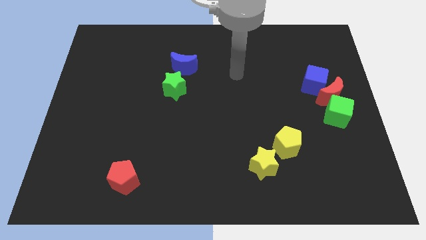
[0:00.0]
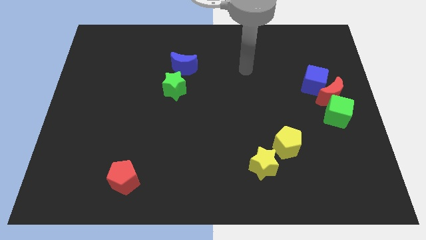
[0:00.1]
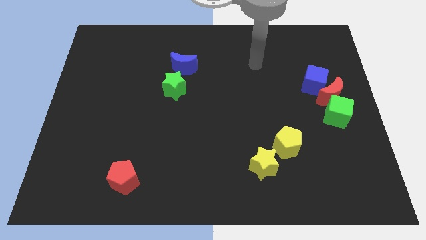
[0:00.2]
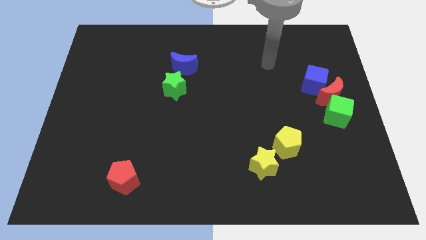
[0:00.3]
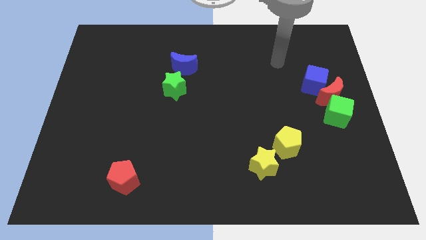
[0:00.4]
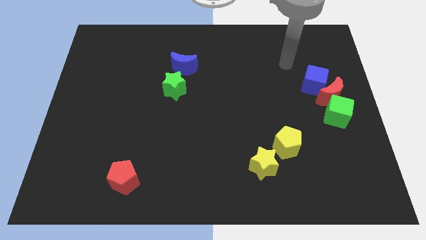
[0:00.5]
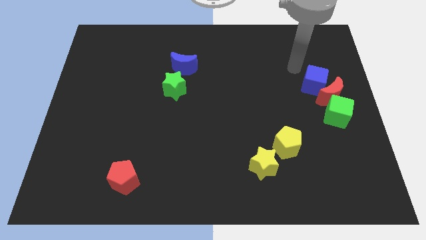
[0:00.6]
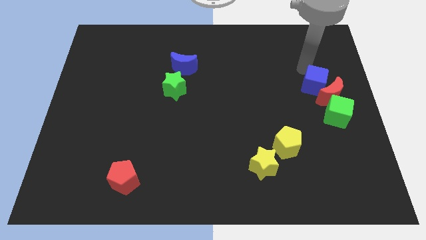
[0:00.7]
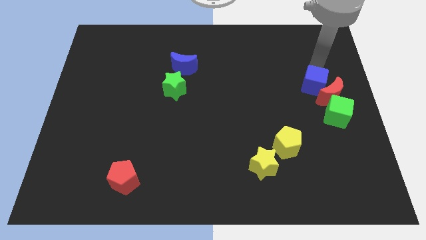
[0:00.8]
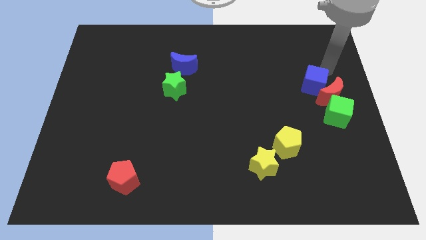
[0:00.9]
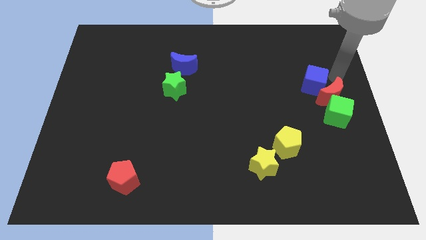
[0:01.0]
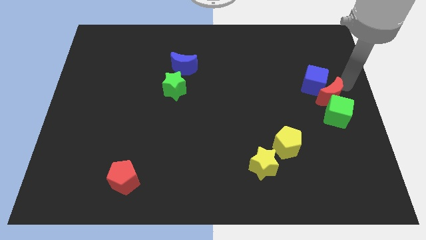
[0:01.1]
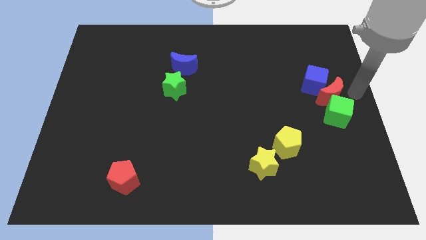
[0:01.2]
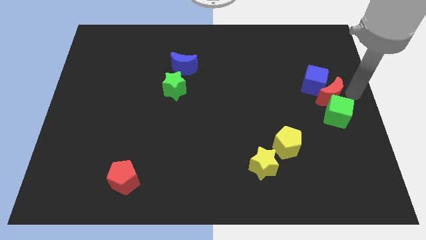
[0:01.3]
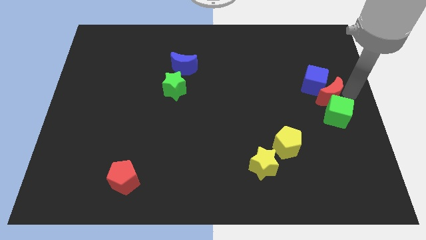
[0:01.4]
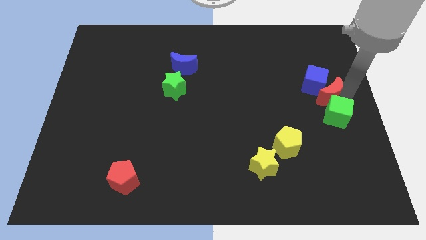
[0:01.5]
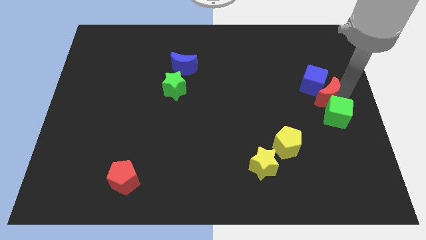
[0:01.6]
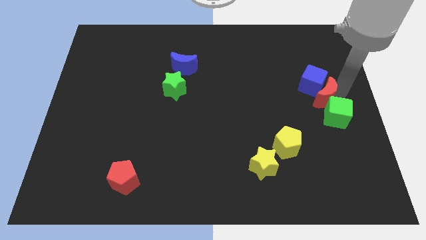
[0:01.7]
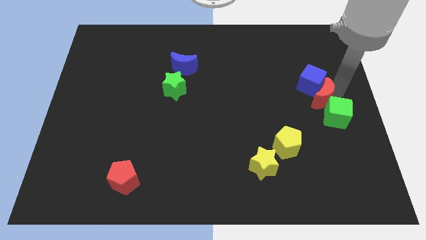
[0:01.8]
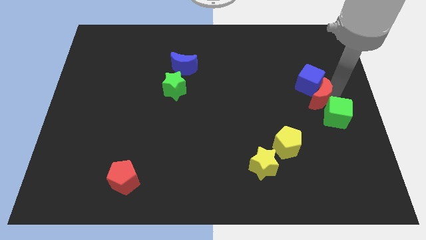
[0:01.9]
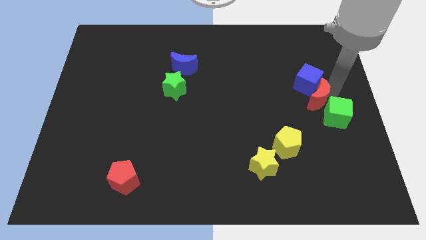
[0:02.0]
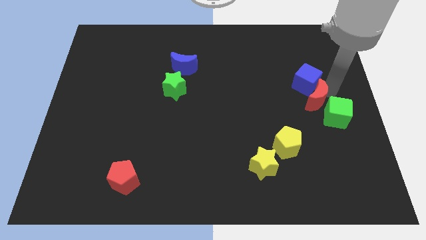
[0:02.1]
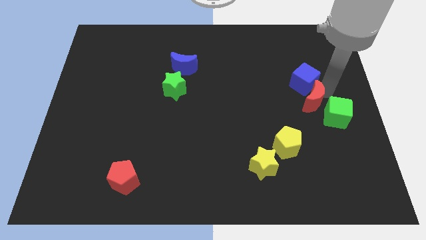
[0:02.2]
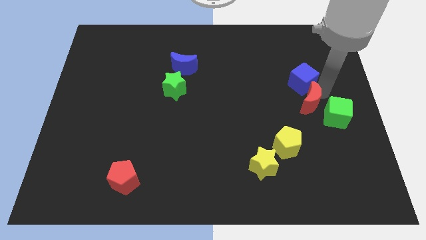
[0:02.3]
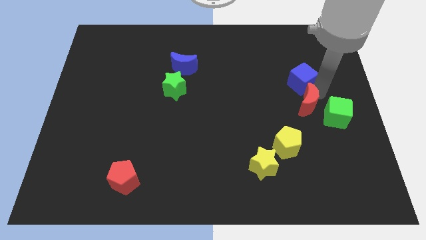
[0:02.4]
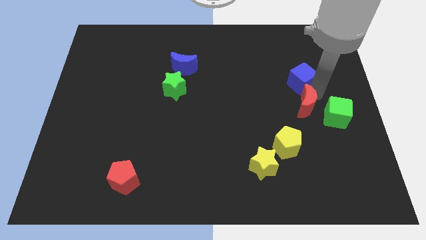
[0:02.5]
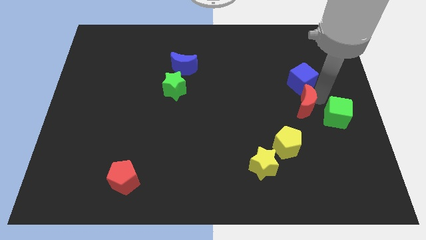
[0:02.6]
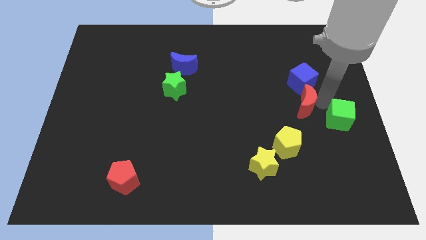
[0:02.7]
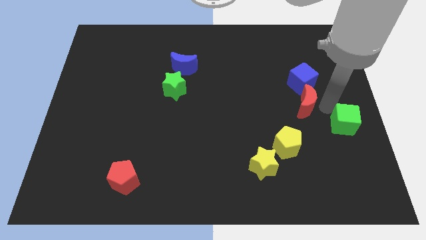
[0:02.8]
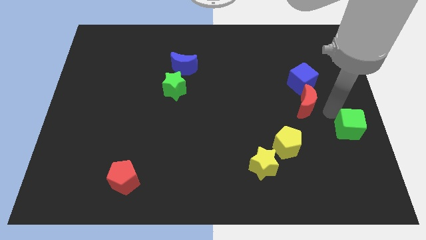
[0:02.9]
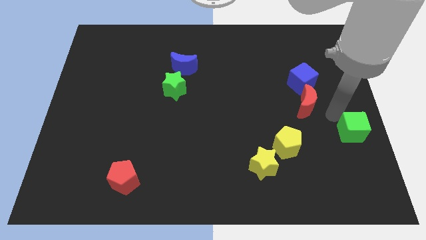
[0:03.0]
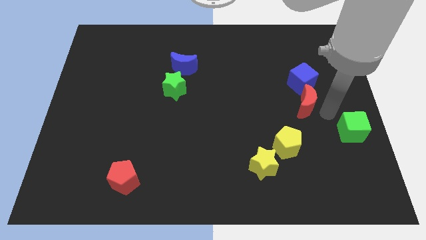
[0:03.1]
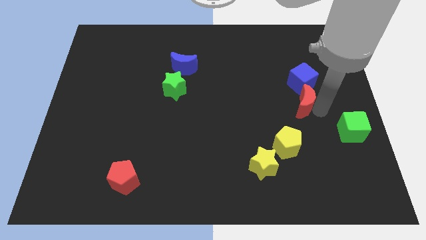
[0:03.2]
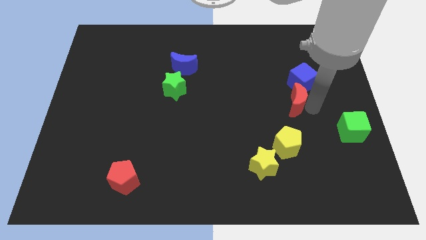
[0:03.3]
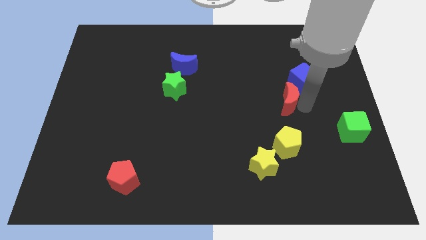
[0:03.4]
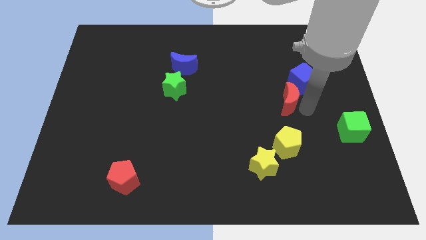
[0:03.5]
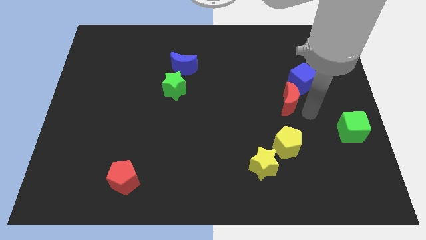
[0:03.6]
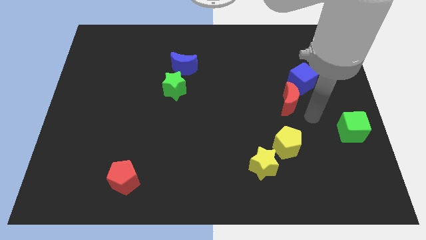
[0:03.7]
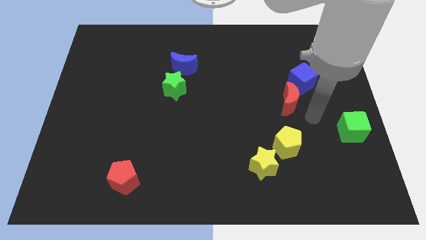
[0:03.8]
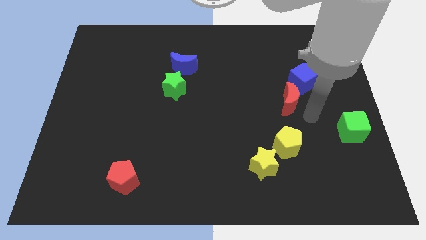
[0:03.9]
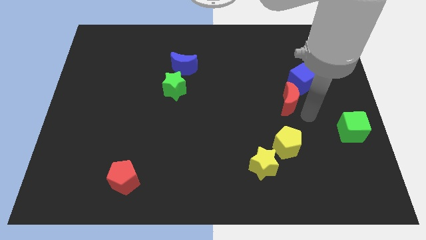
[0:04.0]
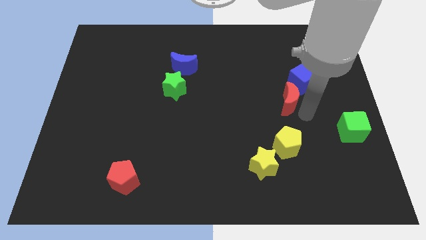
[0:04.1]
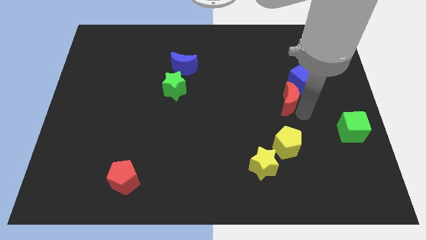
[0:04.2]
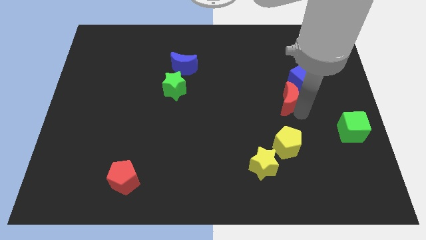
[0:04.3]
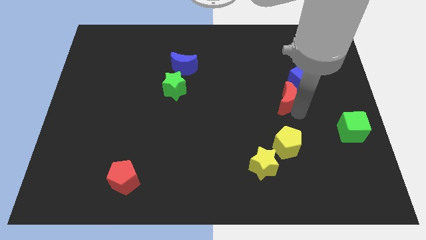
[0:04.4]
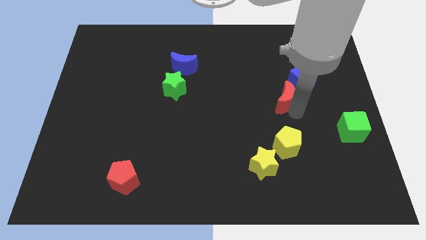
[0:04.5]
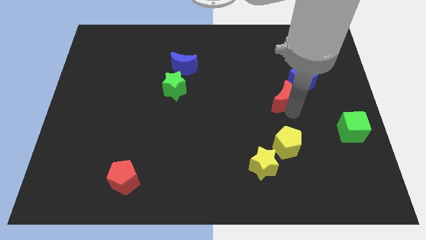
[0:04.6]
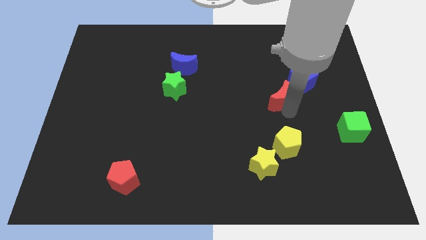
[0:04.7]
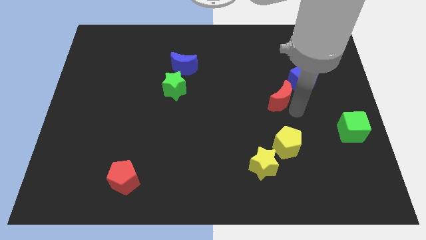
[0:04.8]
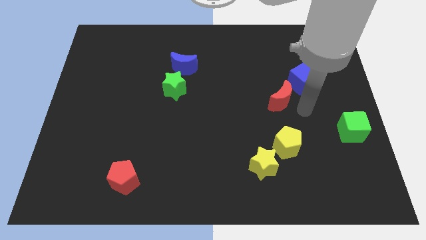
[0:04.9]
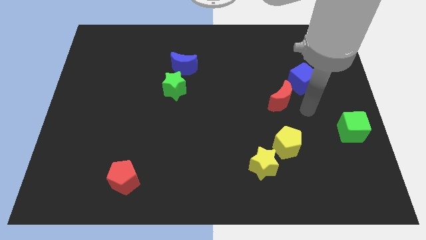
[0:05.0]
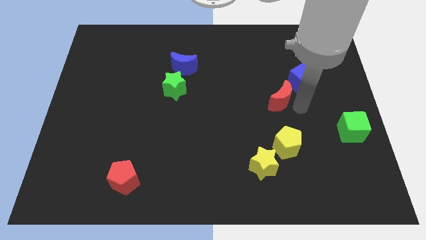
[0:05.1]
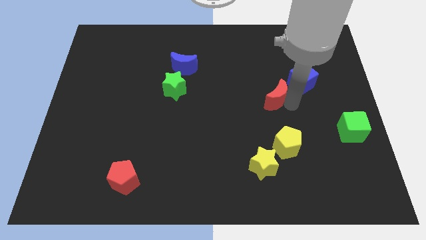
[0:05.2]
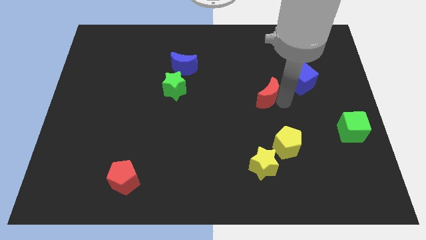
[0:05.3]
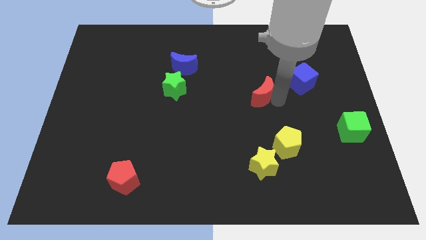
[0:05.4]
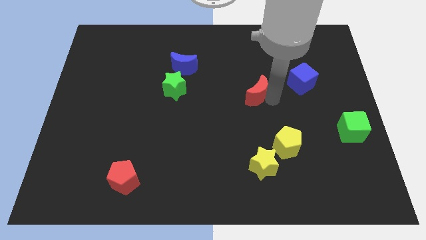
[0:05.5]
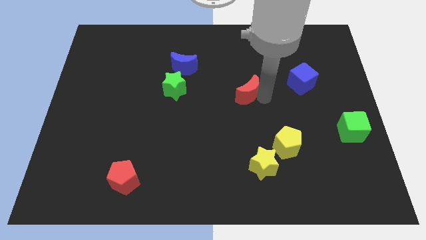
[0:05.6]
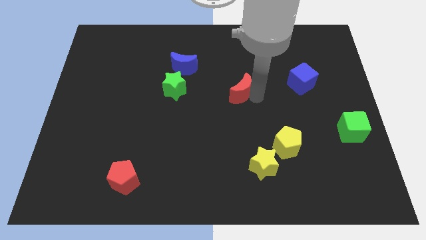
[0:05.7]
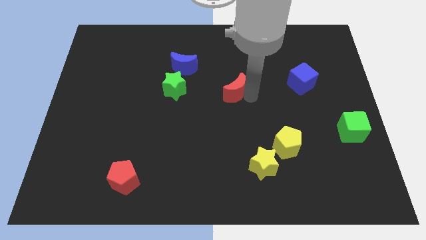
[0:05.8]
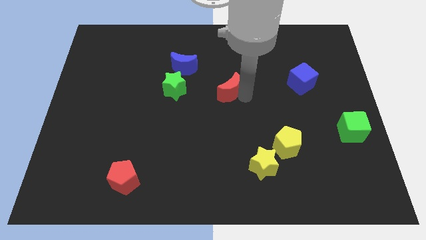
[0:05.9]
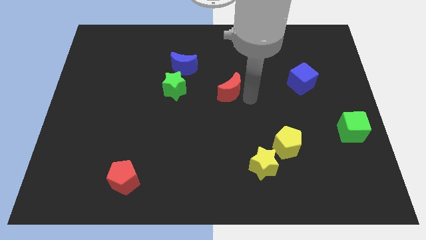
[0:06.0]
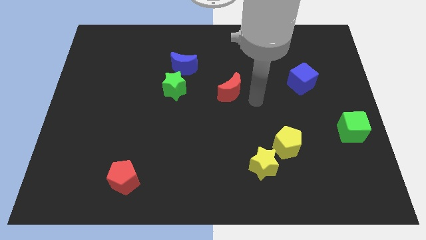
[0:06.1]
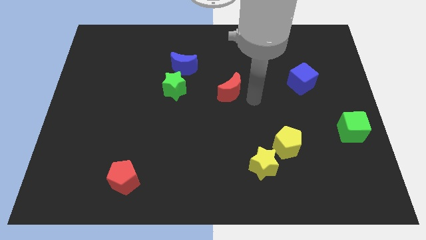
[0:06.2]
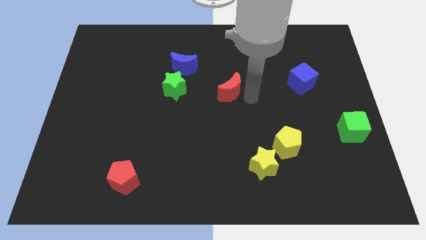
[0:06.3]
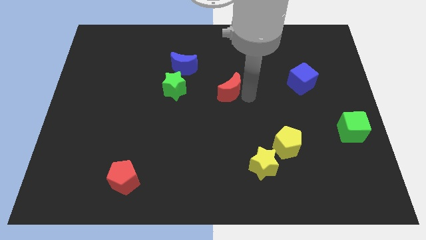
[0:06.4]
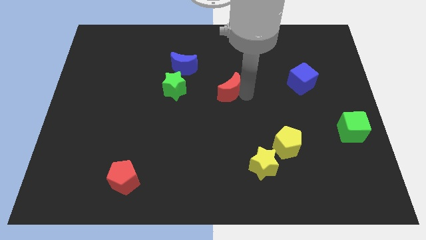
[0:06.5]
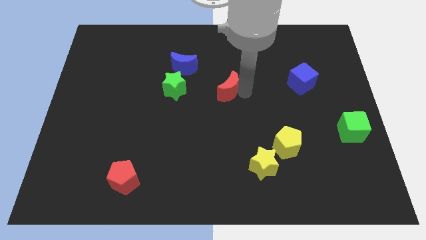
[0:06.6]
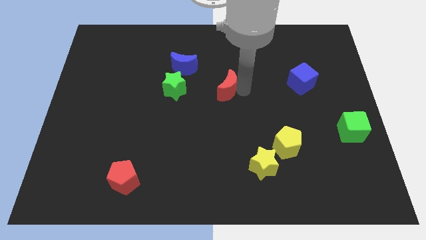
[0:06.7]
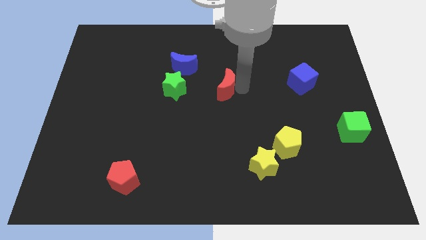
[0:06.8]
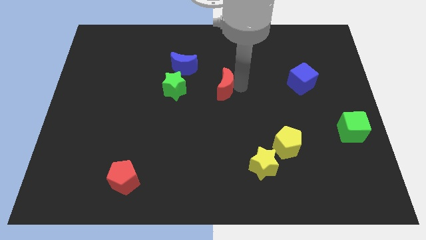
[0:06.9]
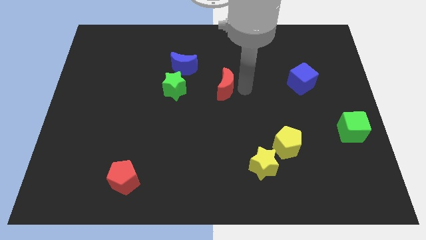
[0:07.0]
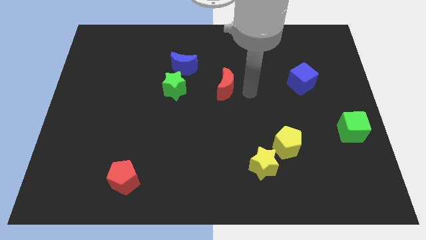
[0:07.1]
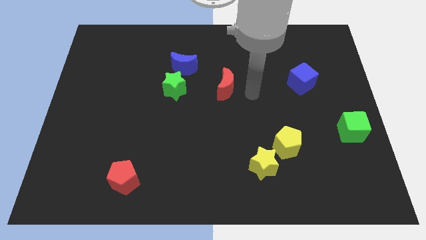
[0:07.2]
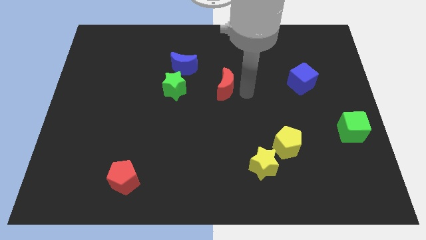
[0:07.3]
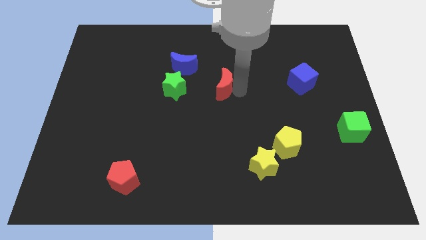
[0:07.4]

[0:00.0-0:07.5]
push the red moon diagonally down and to the right of the blue moon
